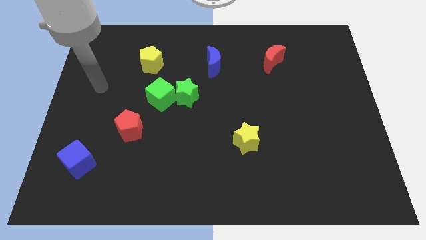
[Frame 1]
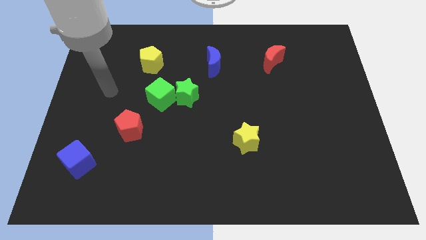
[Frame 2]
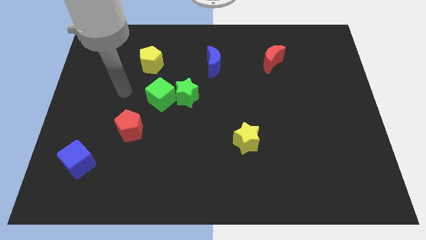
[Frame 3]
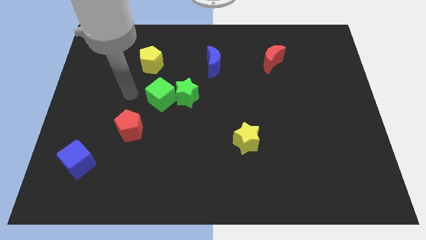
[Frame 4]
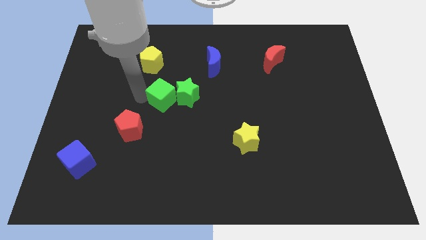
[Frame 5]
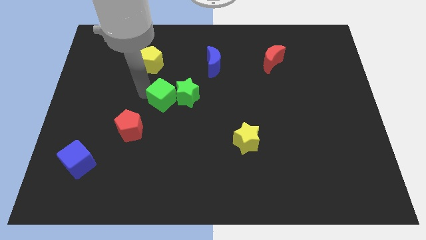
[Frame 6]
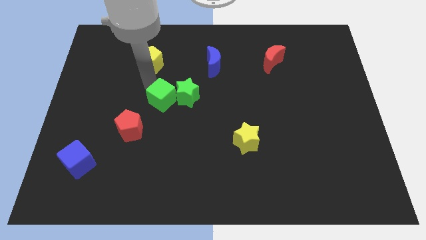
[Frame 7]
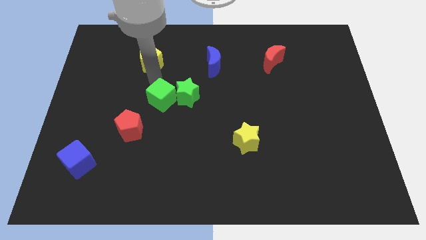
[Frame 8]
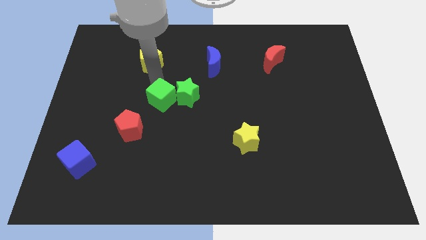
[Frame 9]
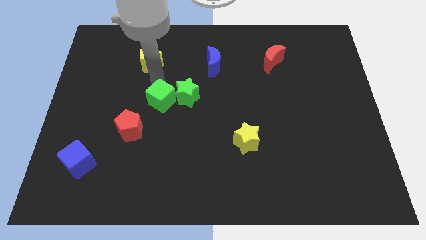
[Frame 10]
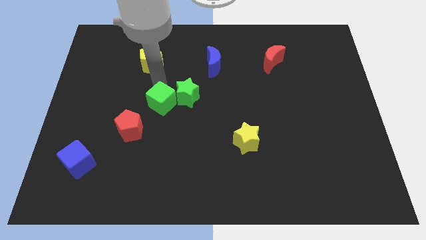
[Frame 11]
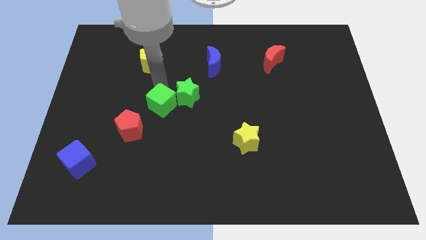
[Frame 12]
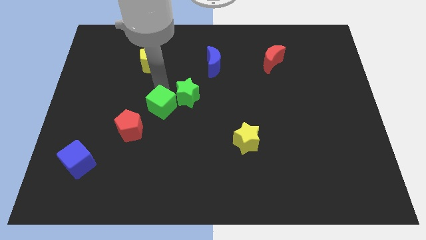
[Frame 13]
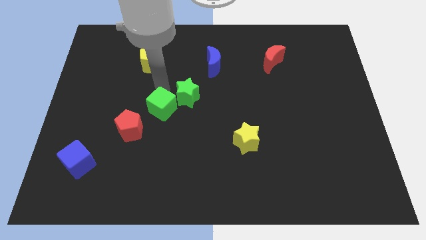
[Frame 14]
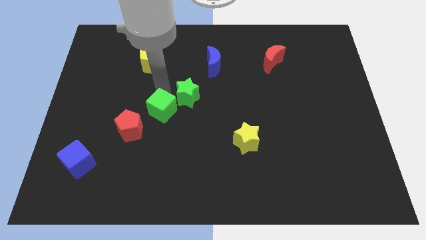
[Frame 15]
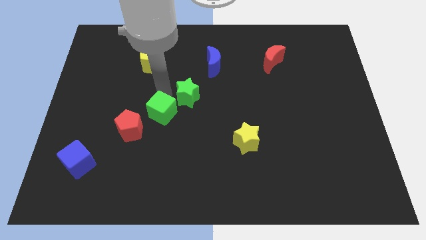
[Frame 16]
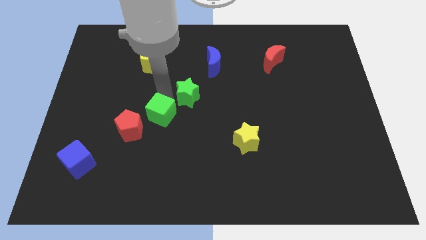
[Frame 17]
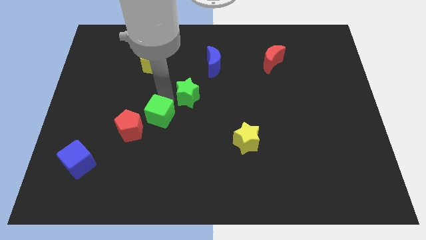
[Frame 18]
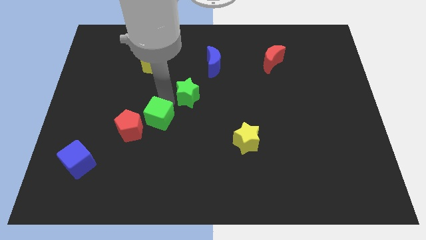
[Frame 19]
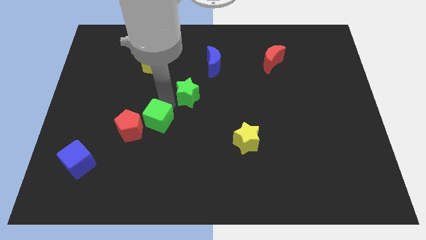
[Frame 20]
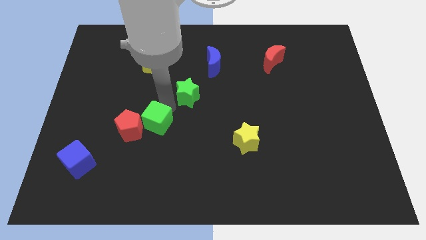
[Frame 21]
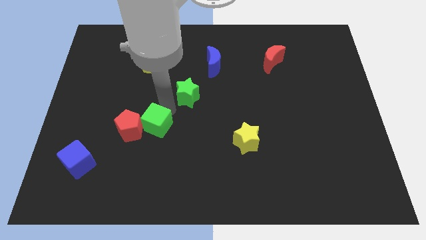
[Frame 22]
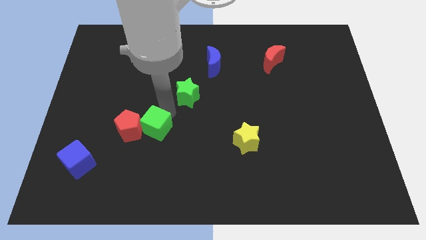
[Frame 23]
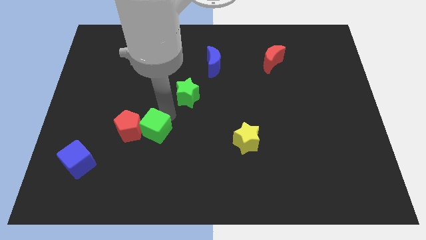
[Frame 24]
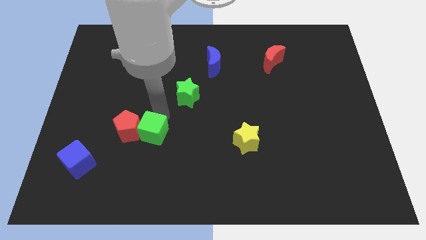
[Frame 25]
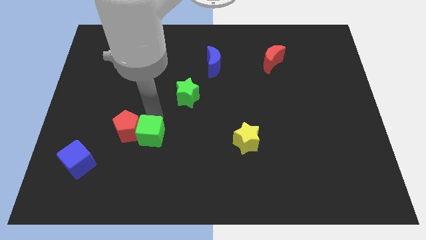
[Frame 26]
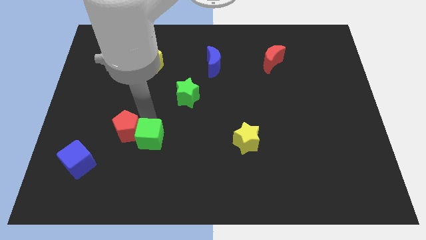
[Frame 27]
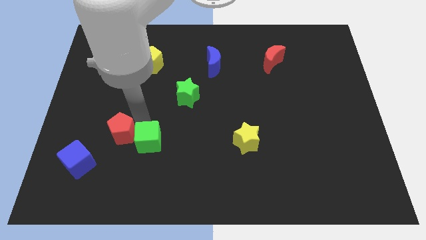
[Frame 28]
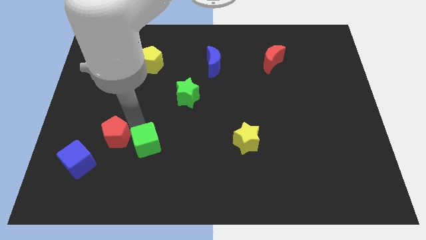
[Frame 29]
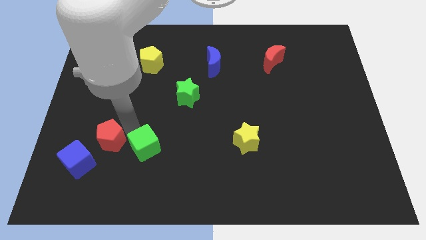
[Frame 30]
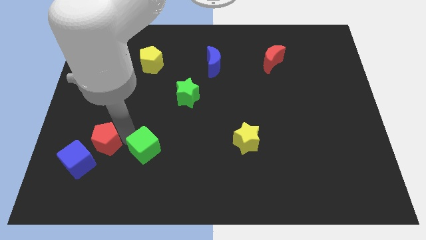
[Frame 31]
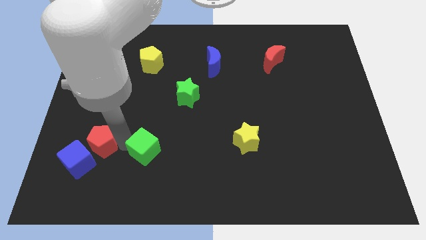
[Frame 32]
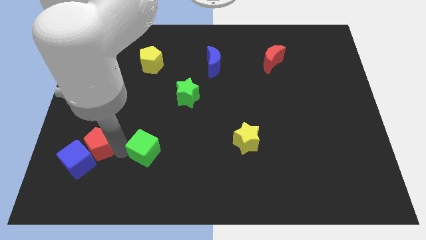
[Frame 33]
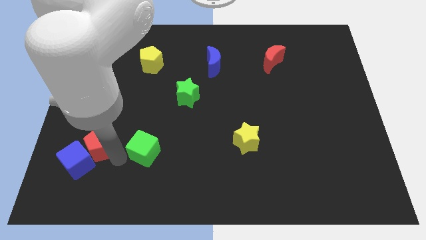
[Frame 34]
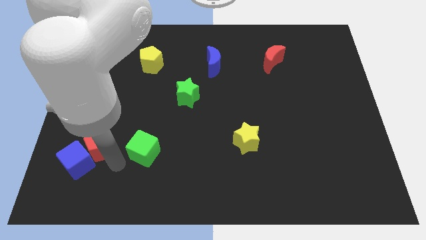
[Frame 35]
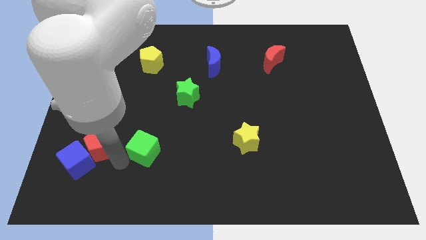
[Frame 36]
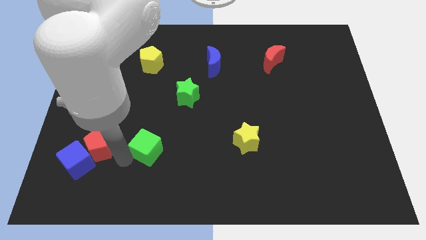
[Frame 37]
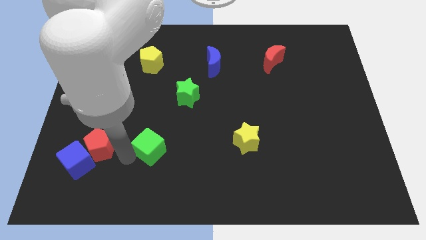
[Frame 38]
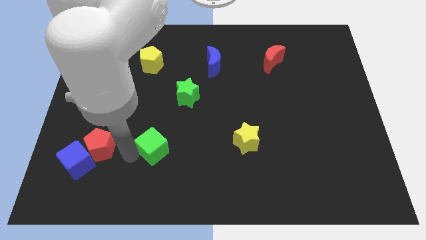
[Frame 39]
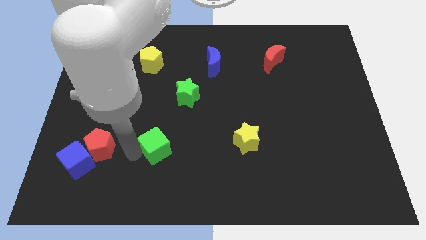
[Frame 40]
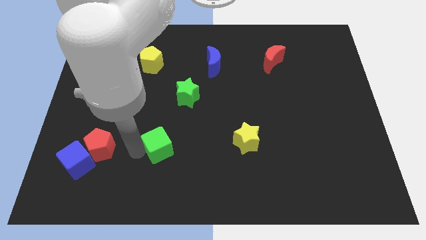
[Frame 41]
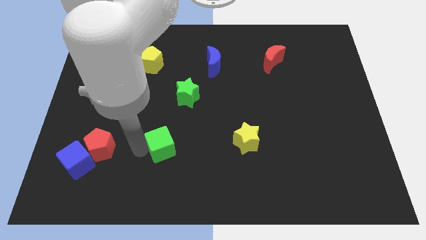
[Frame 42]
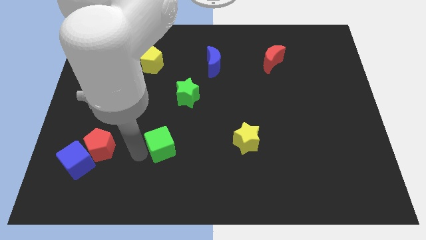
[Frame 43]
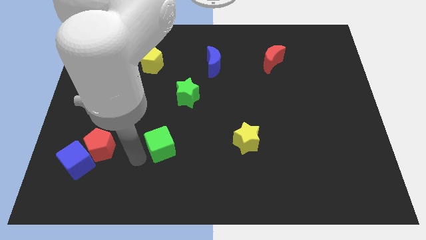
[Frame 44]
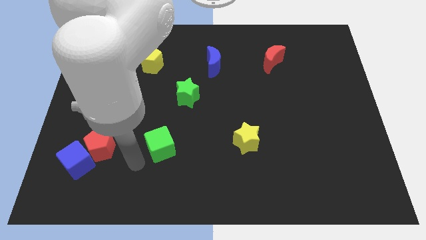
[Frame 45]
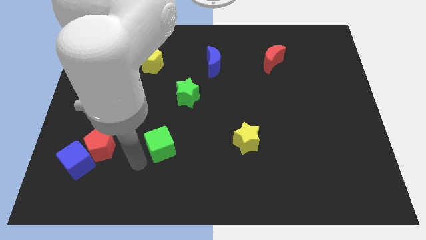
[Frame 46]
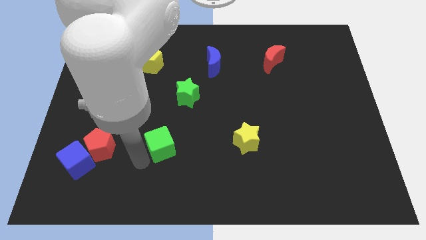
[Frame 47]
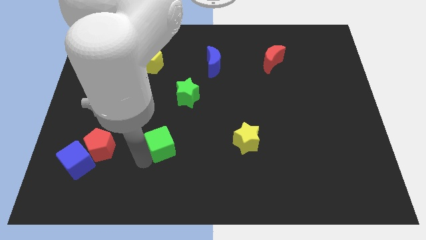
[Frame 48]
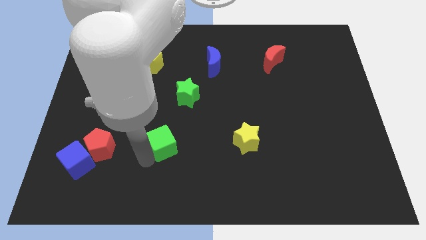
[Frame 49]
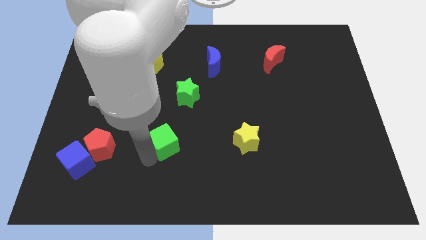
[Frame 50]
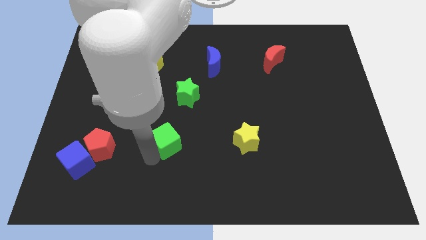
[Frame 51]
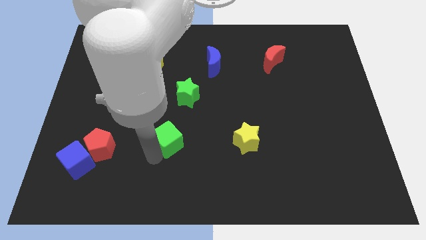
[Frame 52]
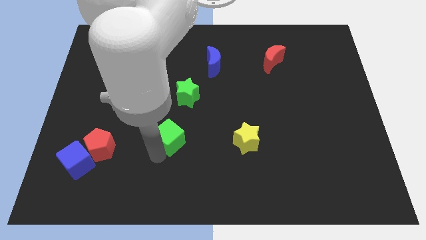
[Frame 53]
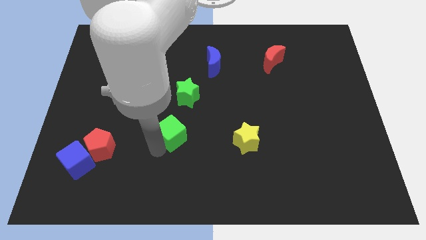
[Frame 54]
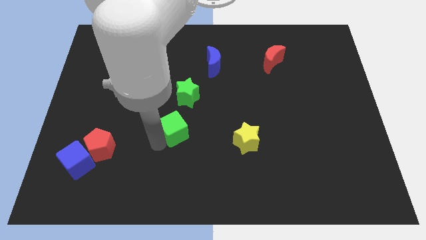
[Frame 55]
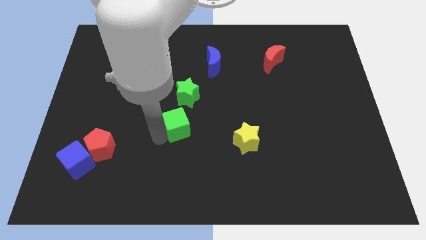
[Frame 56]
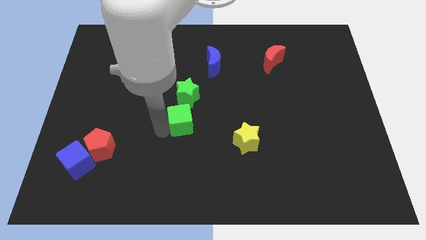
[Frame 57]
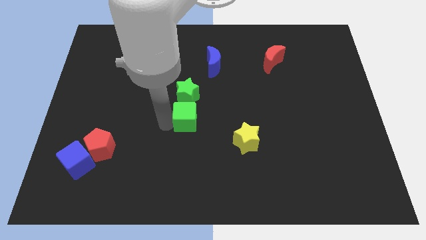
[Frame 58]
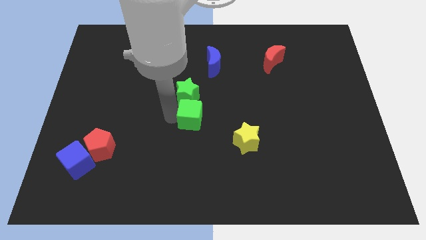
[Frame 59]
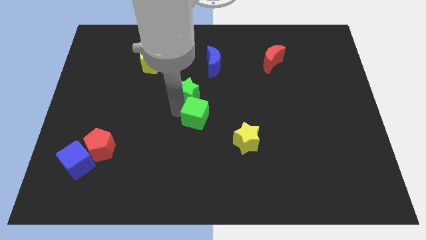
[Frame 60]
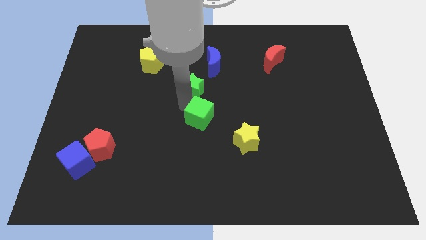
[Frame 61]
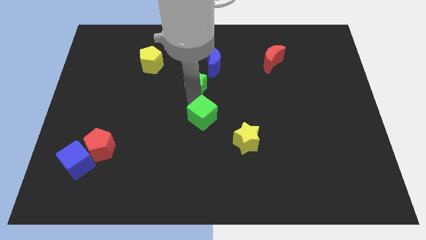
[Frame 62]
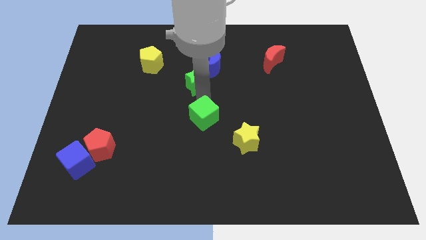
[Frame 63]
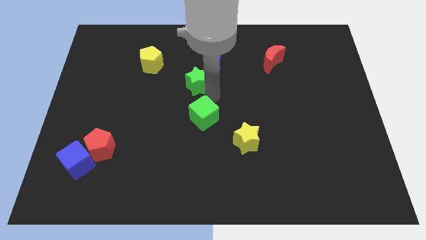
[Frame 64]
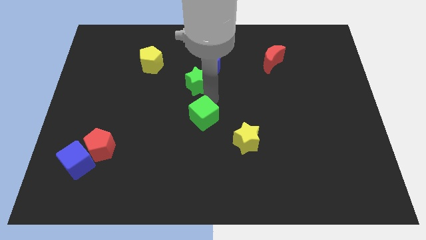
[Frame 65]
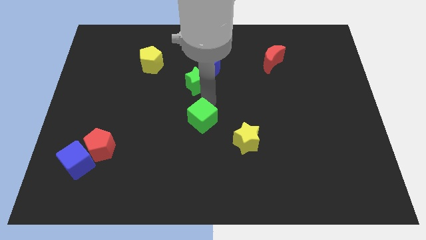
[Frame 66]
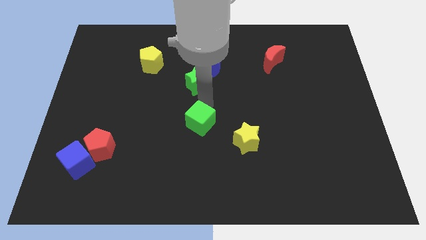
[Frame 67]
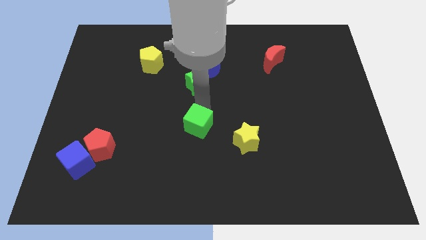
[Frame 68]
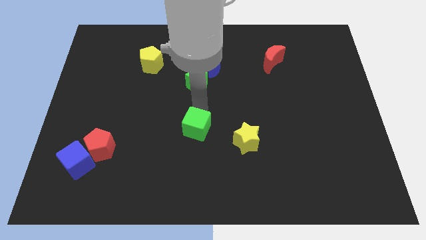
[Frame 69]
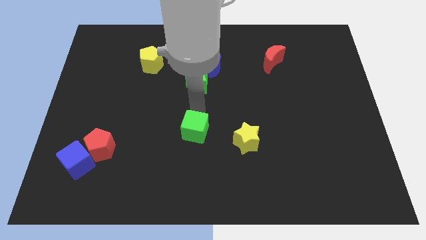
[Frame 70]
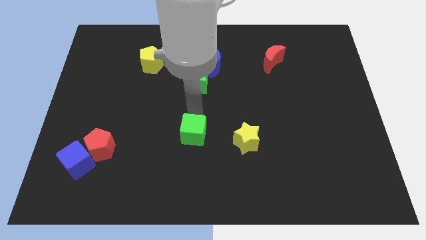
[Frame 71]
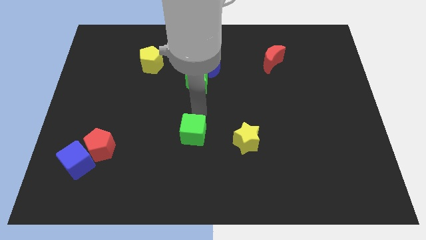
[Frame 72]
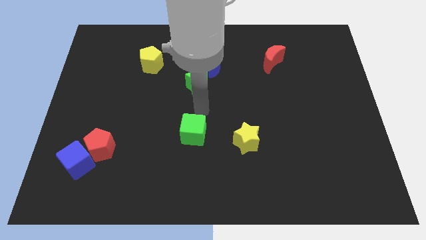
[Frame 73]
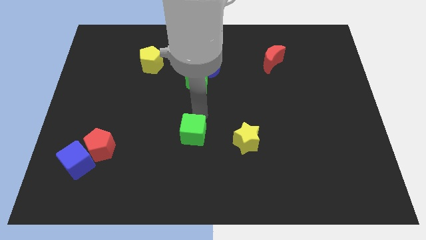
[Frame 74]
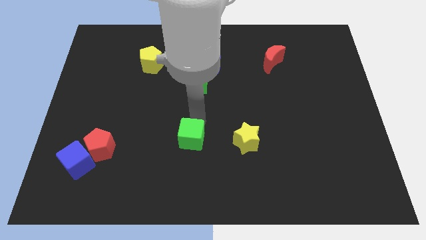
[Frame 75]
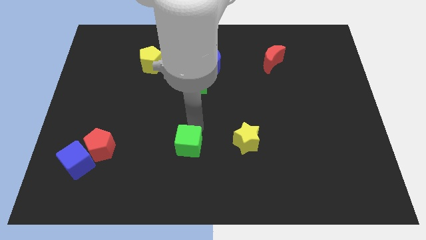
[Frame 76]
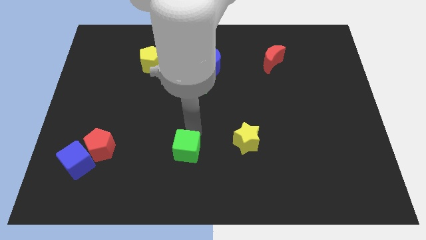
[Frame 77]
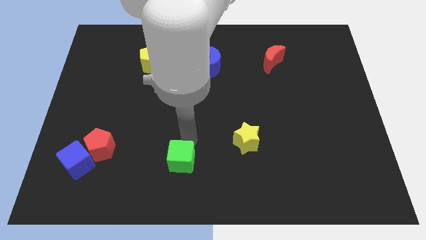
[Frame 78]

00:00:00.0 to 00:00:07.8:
slide the green cube to the bottom

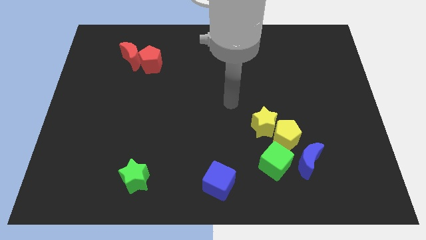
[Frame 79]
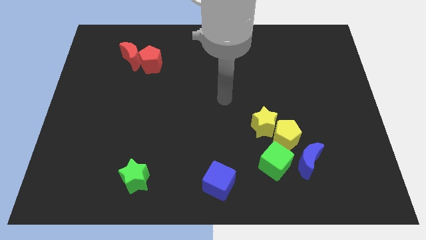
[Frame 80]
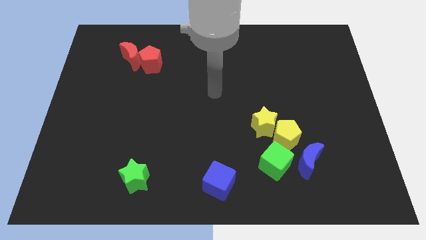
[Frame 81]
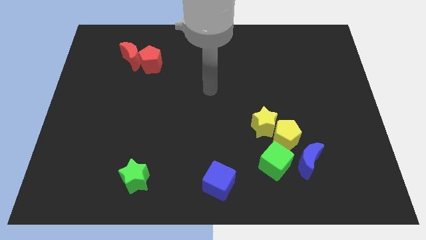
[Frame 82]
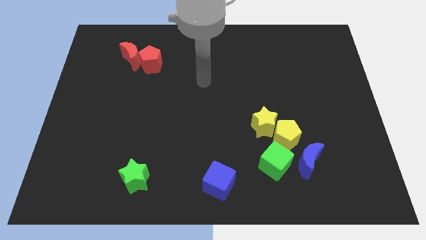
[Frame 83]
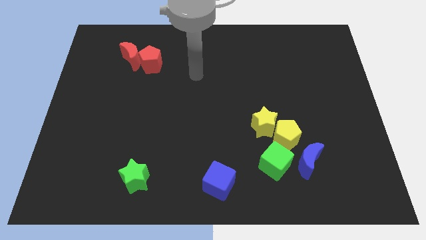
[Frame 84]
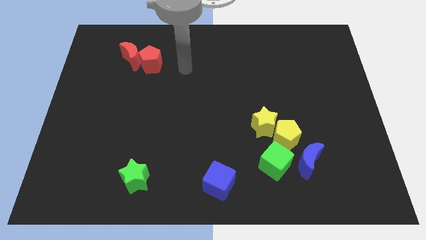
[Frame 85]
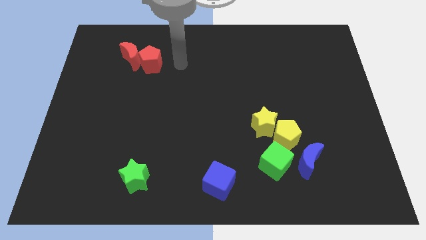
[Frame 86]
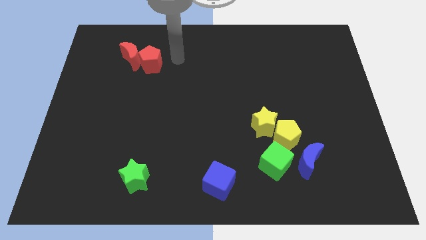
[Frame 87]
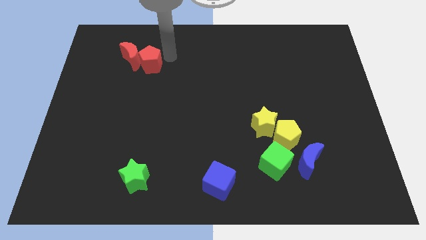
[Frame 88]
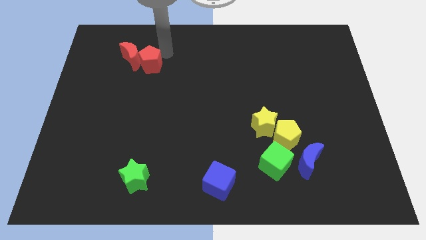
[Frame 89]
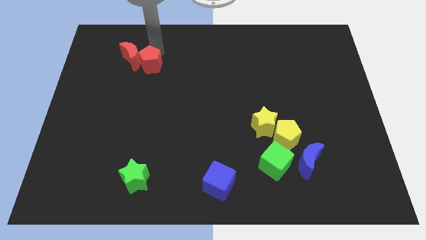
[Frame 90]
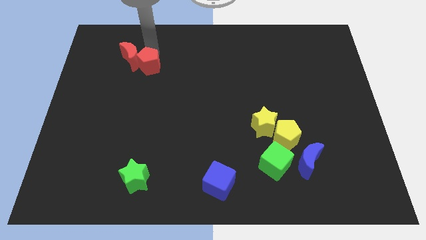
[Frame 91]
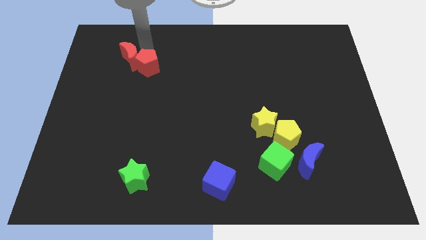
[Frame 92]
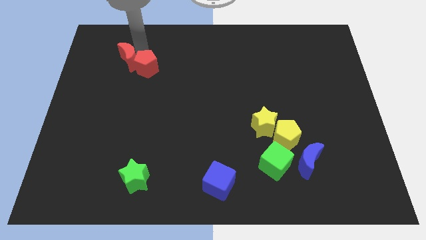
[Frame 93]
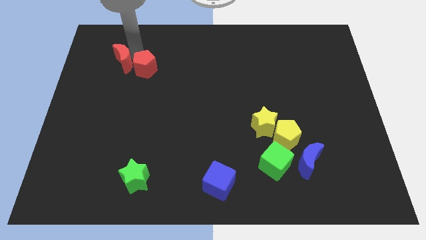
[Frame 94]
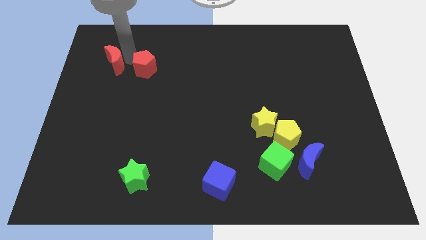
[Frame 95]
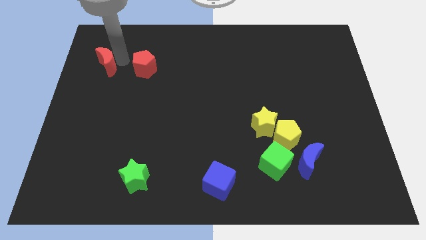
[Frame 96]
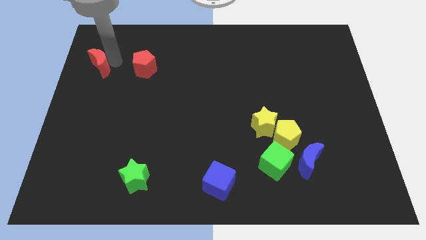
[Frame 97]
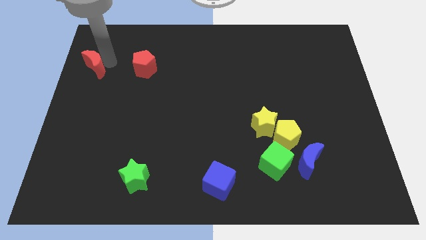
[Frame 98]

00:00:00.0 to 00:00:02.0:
push the red moon to the center left
